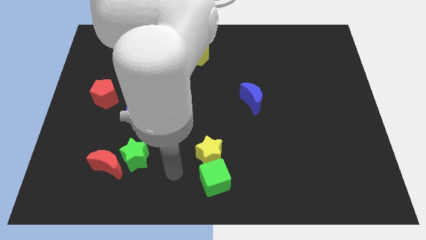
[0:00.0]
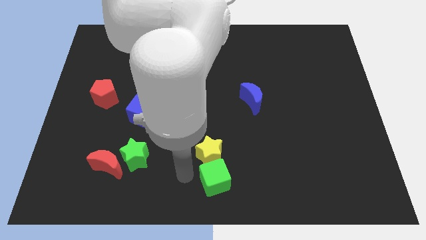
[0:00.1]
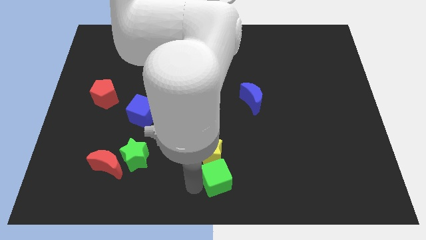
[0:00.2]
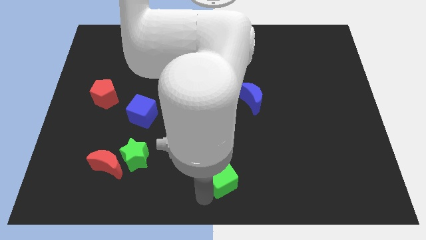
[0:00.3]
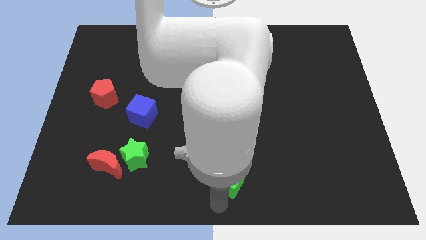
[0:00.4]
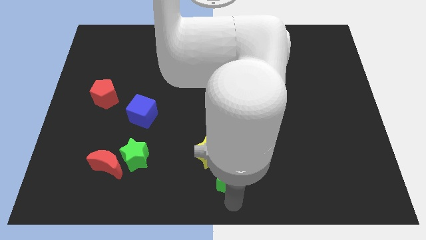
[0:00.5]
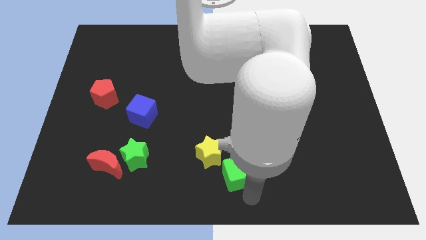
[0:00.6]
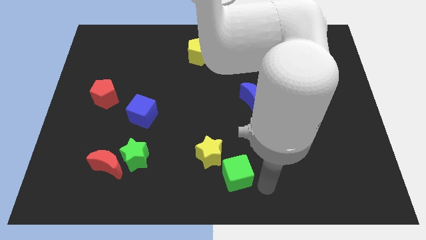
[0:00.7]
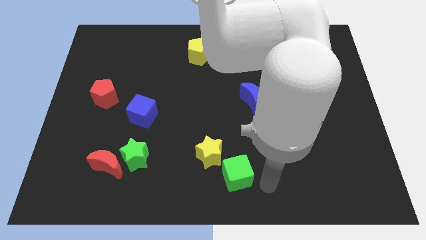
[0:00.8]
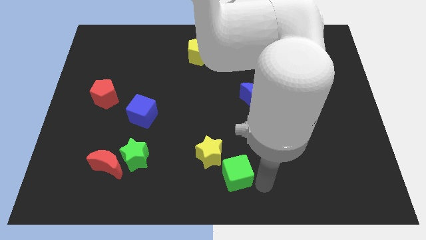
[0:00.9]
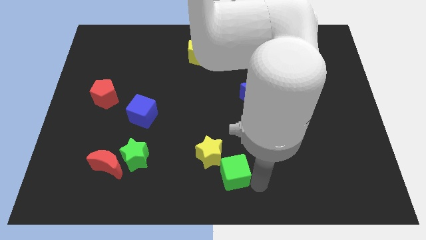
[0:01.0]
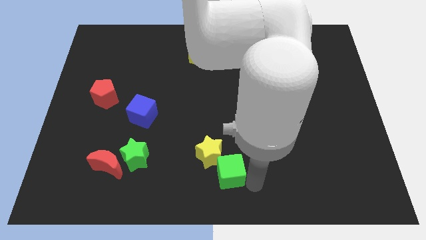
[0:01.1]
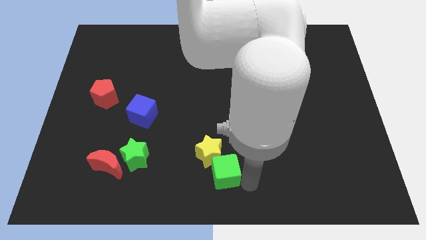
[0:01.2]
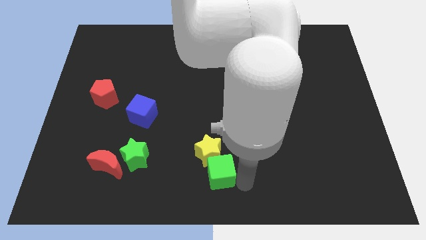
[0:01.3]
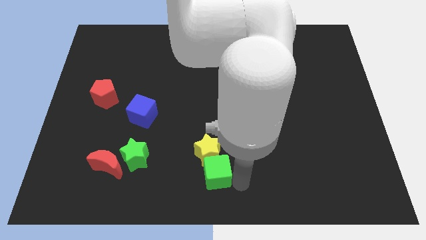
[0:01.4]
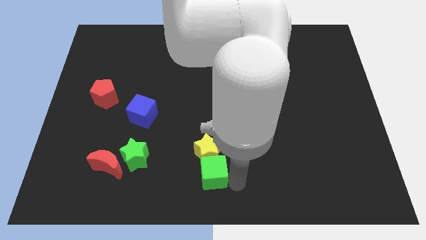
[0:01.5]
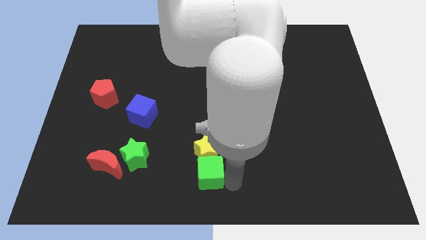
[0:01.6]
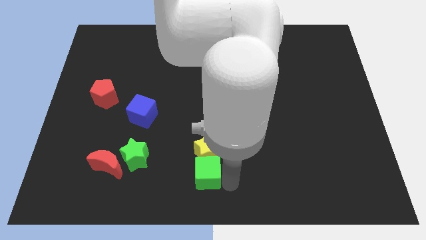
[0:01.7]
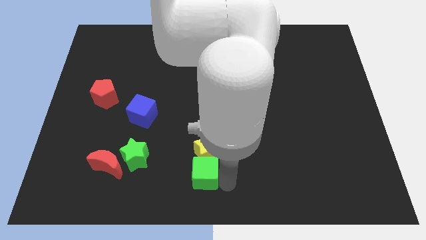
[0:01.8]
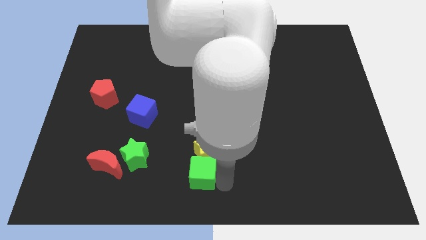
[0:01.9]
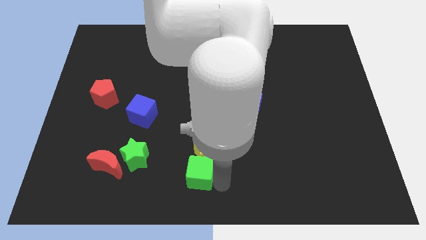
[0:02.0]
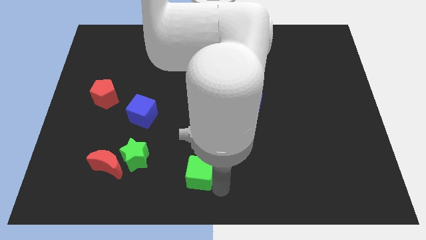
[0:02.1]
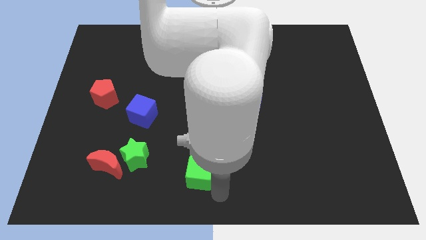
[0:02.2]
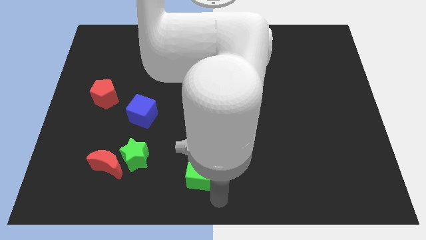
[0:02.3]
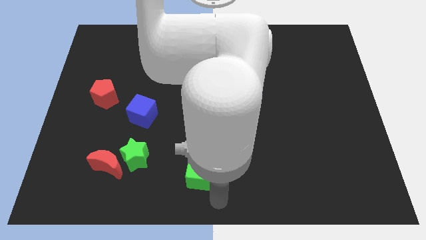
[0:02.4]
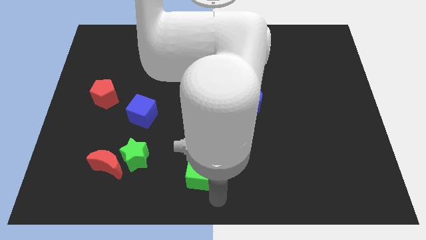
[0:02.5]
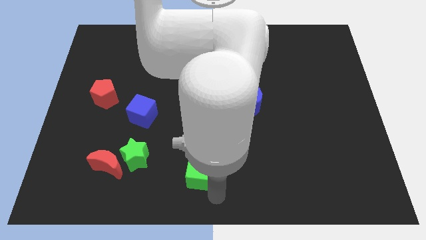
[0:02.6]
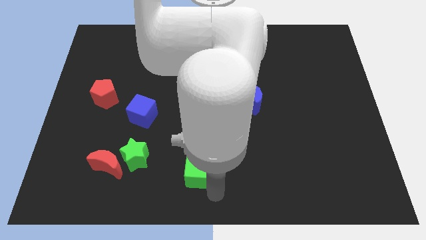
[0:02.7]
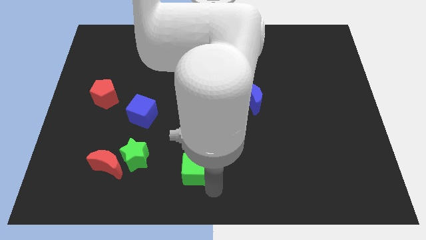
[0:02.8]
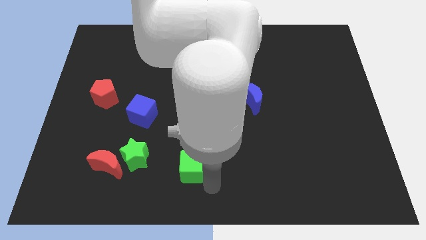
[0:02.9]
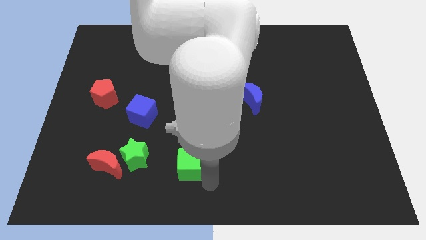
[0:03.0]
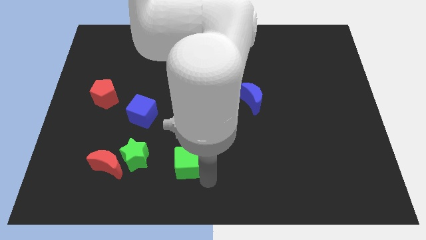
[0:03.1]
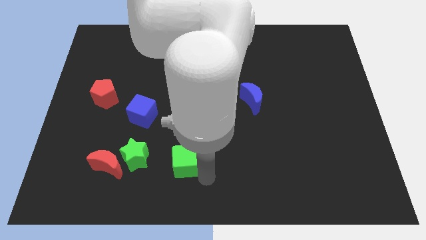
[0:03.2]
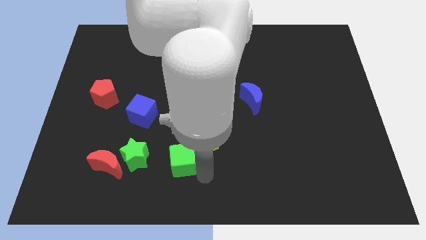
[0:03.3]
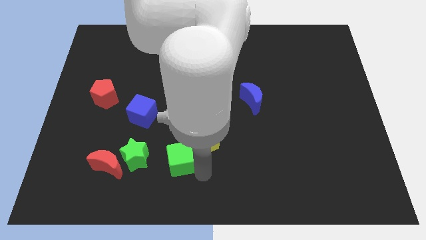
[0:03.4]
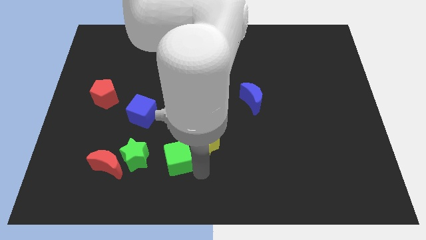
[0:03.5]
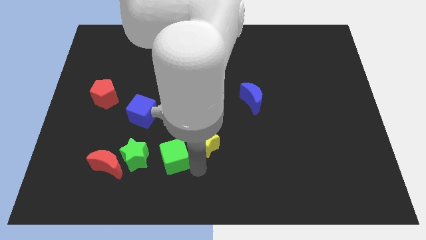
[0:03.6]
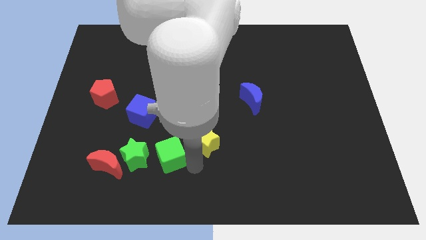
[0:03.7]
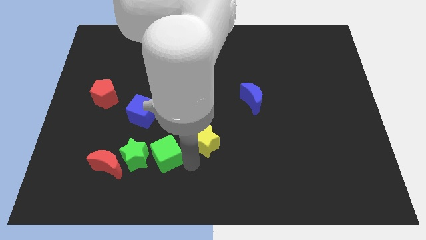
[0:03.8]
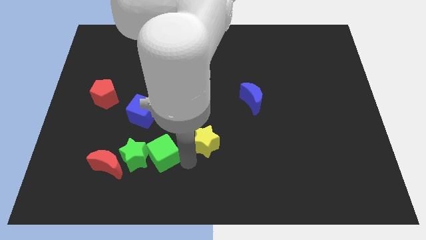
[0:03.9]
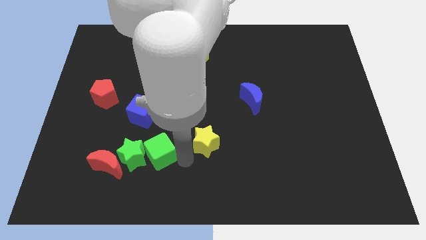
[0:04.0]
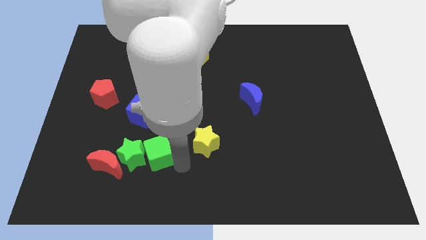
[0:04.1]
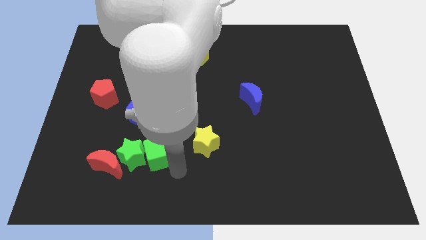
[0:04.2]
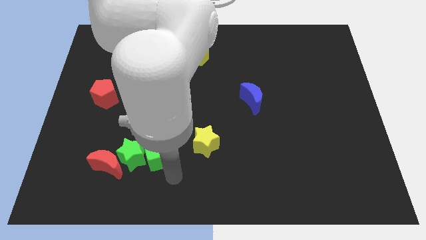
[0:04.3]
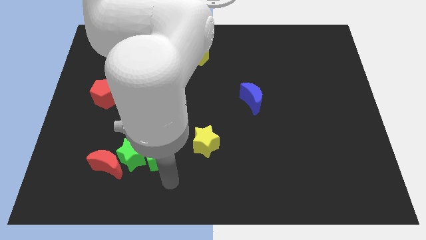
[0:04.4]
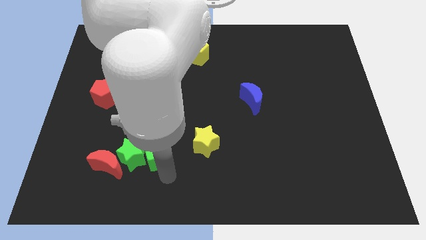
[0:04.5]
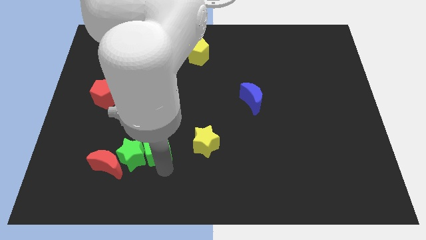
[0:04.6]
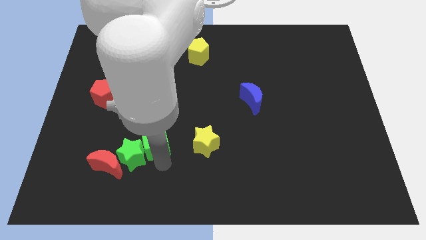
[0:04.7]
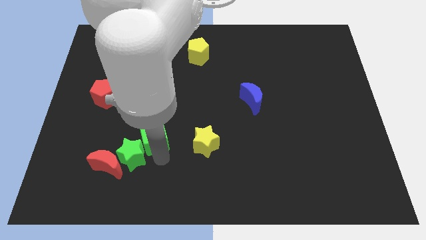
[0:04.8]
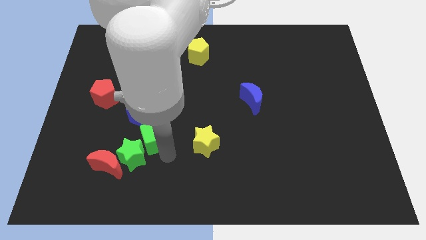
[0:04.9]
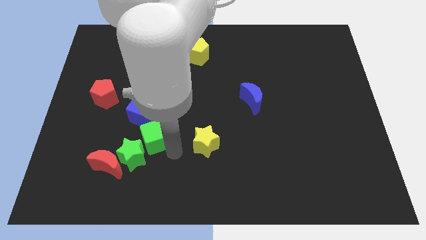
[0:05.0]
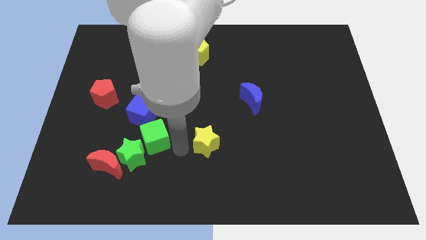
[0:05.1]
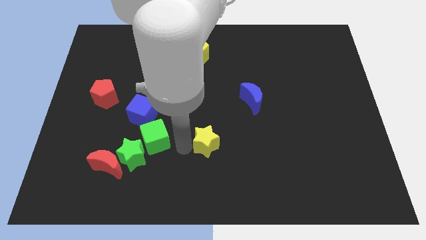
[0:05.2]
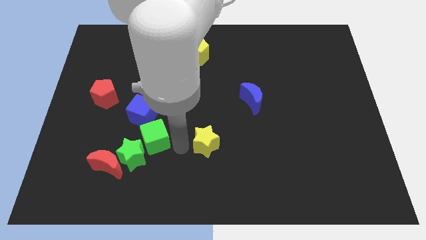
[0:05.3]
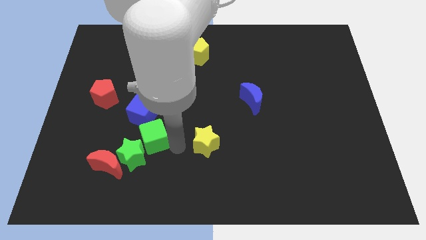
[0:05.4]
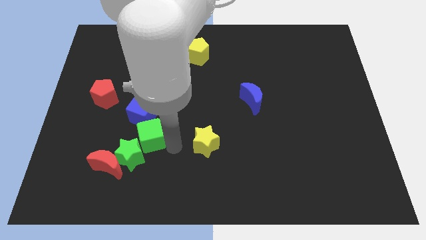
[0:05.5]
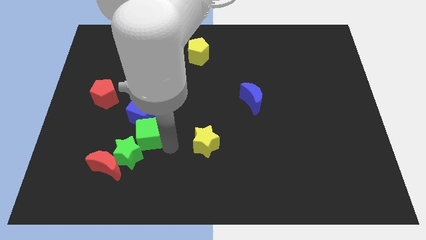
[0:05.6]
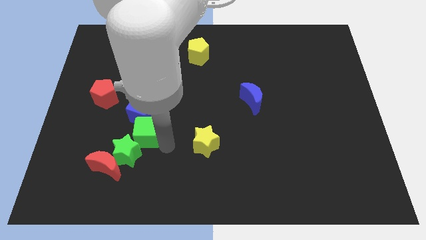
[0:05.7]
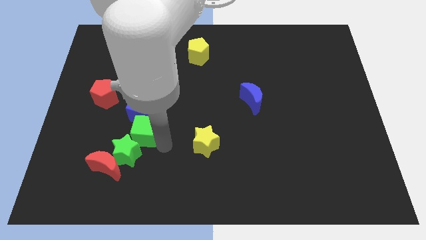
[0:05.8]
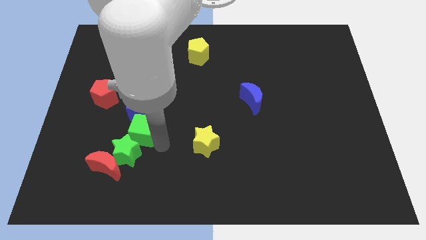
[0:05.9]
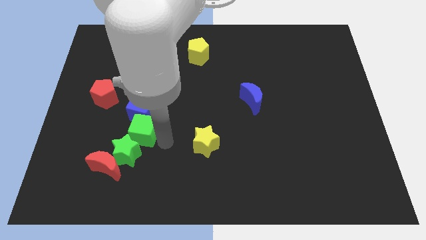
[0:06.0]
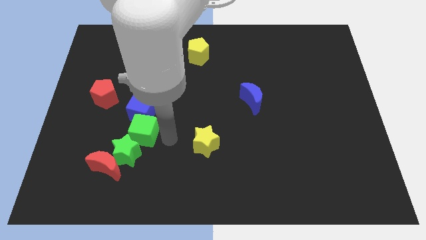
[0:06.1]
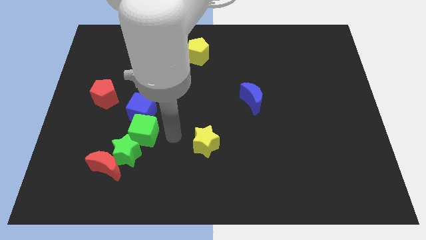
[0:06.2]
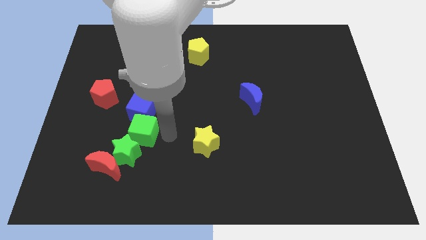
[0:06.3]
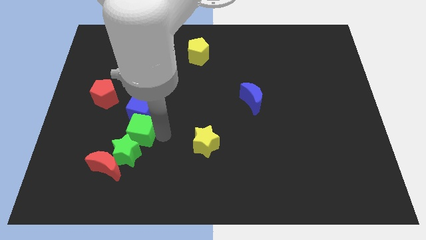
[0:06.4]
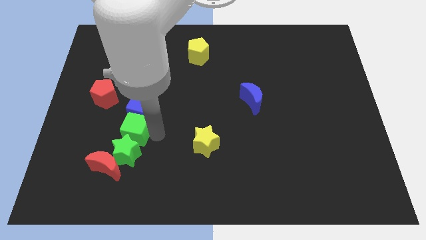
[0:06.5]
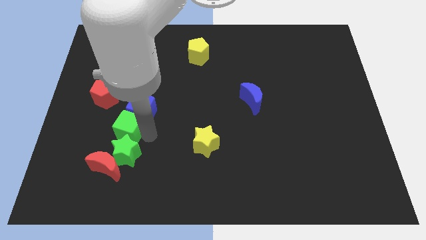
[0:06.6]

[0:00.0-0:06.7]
slide the green cube to the bottom right of the red pentagon
